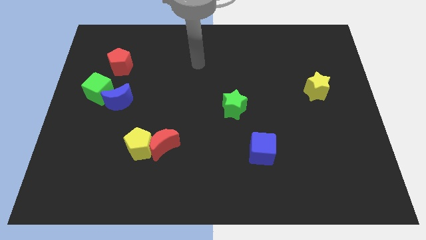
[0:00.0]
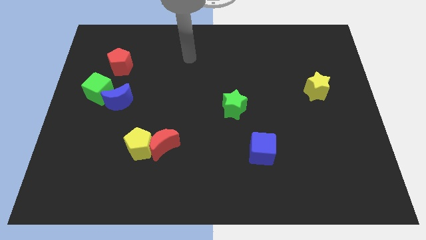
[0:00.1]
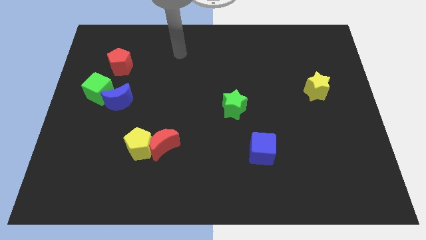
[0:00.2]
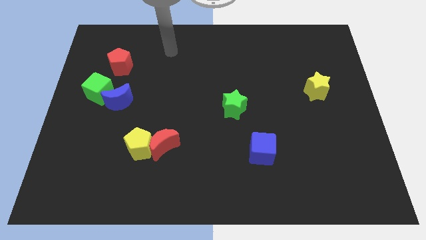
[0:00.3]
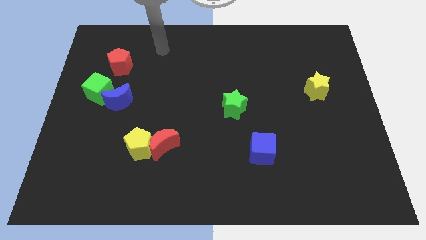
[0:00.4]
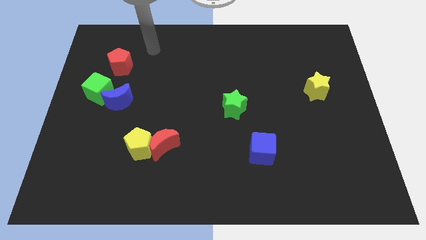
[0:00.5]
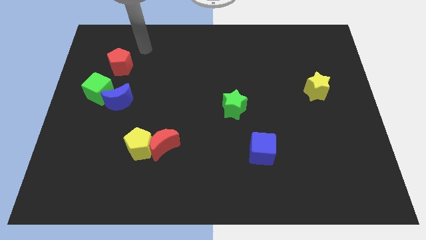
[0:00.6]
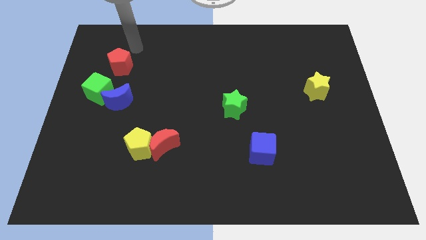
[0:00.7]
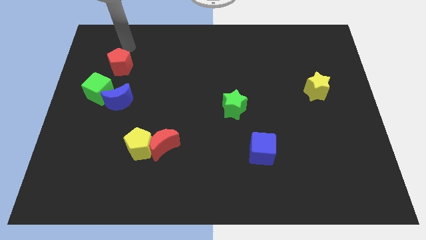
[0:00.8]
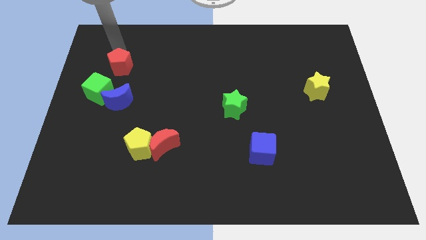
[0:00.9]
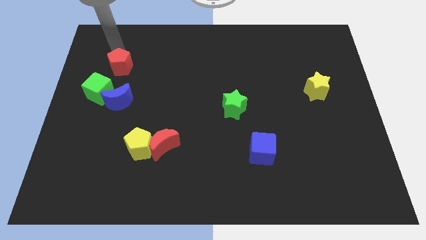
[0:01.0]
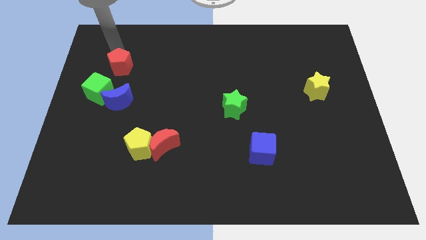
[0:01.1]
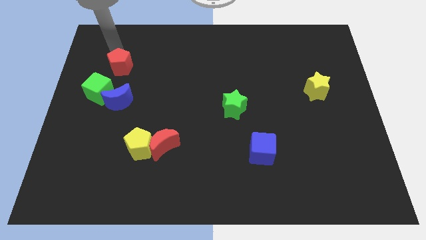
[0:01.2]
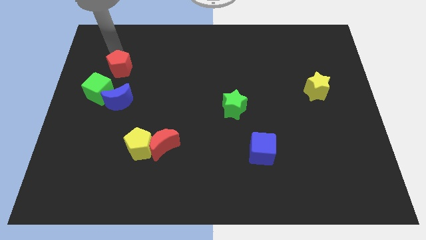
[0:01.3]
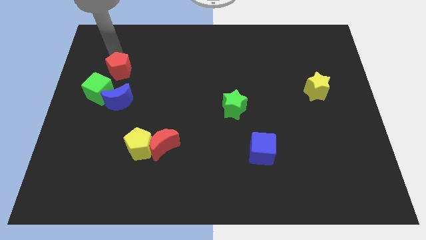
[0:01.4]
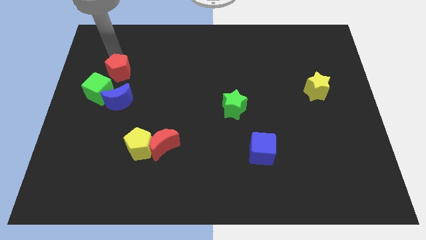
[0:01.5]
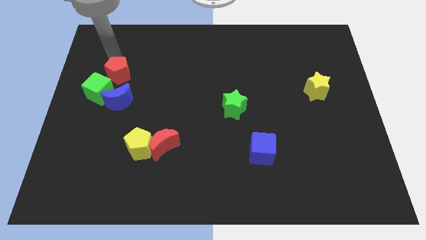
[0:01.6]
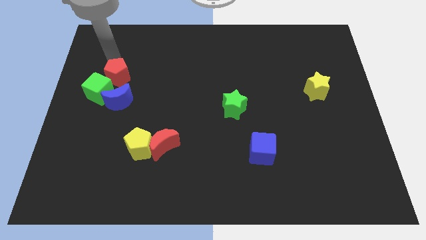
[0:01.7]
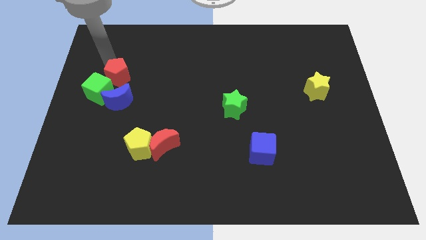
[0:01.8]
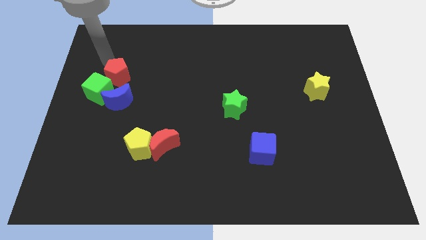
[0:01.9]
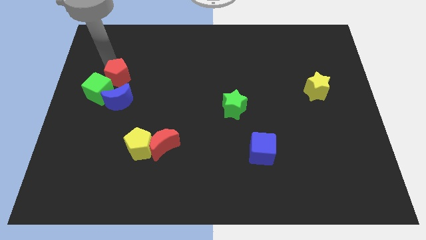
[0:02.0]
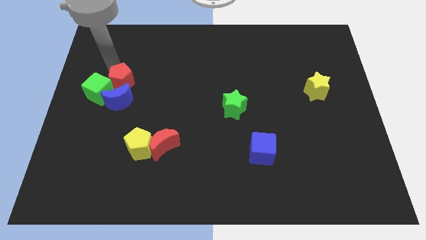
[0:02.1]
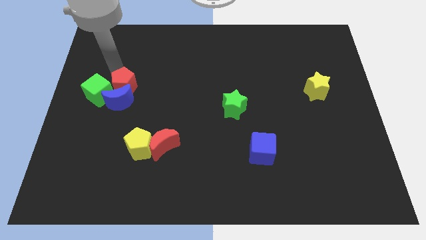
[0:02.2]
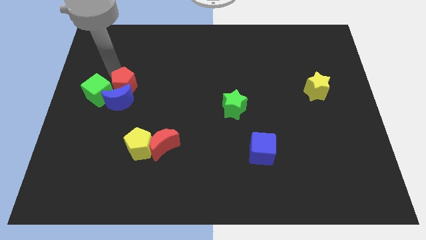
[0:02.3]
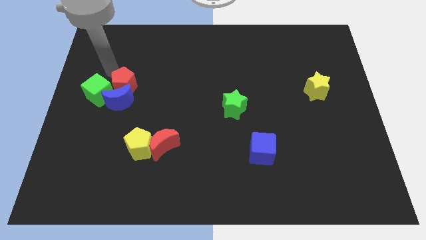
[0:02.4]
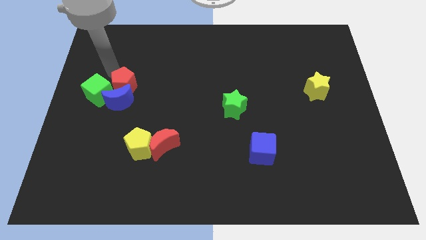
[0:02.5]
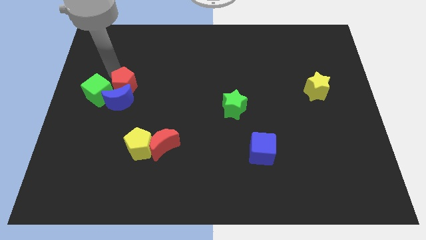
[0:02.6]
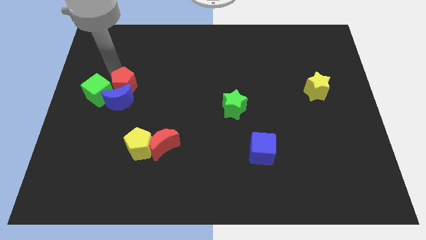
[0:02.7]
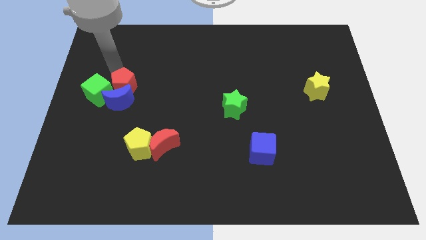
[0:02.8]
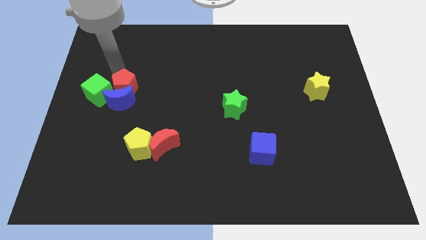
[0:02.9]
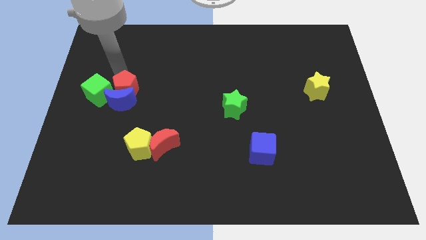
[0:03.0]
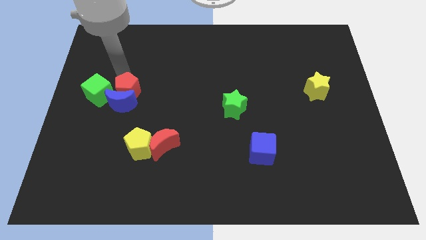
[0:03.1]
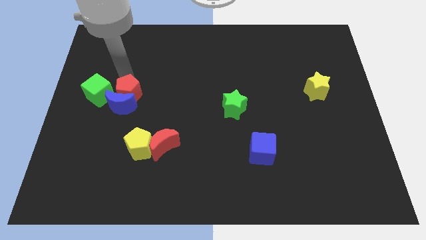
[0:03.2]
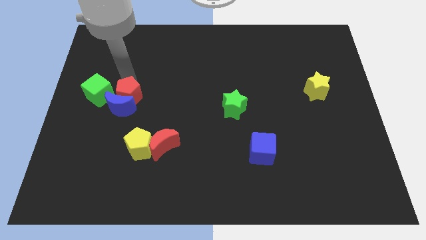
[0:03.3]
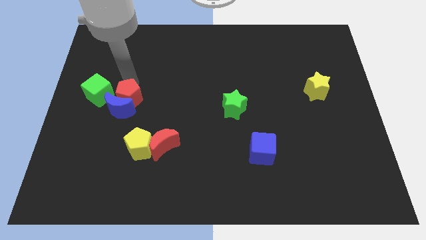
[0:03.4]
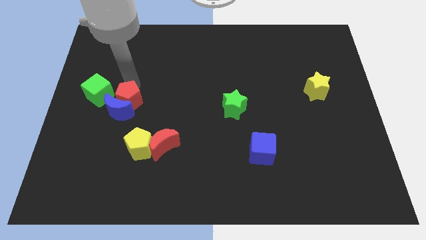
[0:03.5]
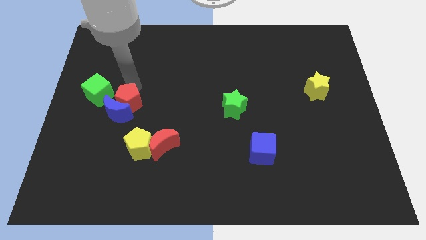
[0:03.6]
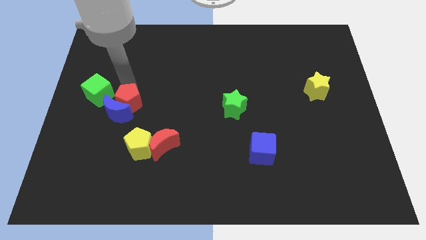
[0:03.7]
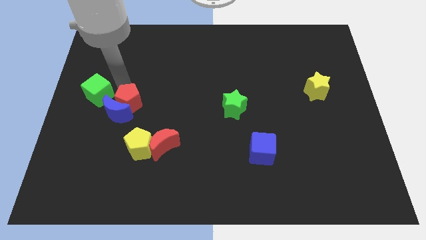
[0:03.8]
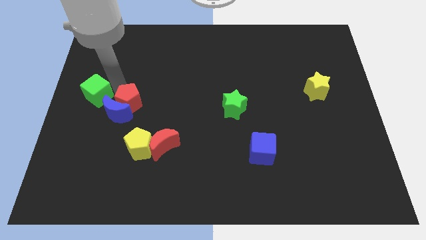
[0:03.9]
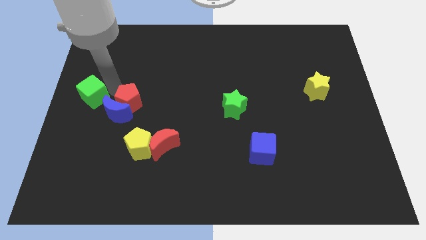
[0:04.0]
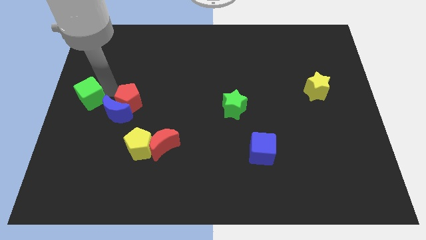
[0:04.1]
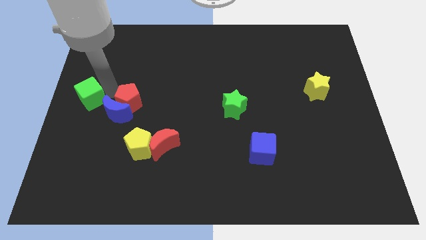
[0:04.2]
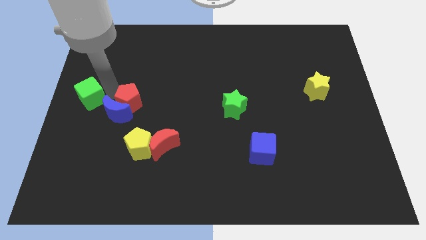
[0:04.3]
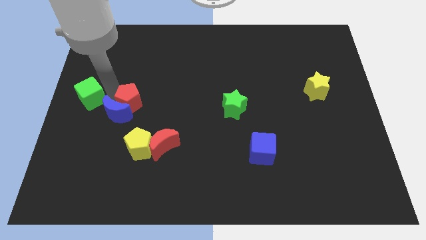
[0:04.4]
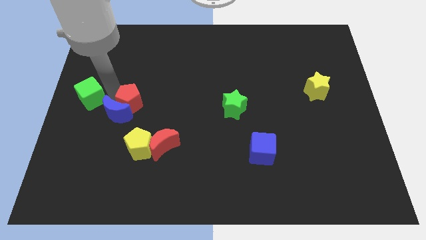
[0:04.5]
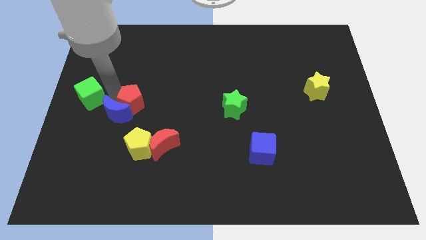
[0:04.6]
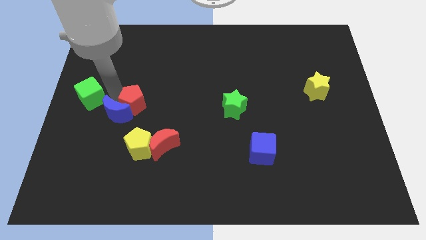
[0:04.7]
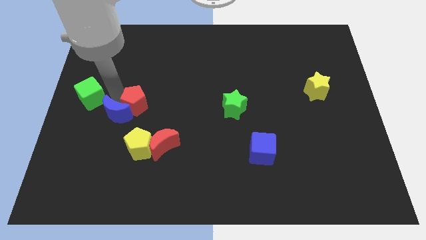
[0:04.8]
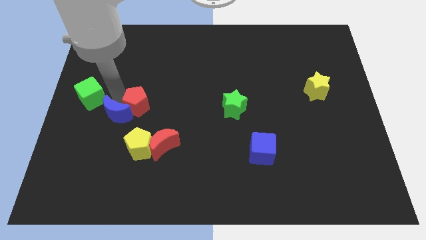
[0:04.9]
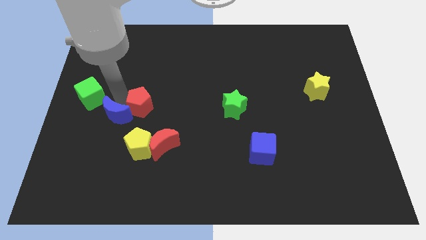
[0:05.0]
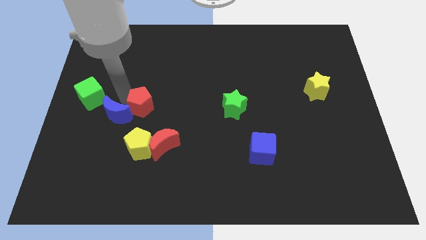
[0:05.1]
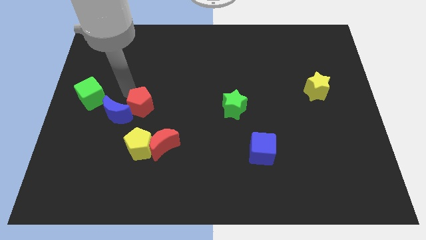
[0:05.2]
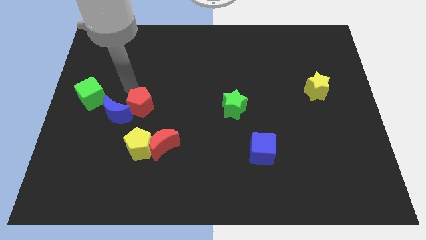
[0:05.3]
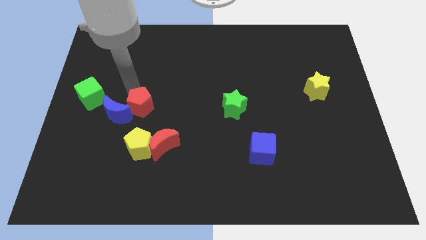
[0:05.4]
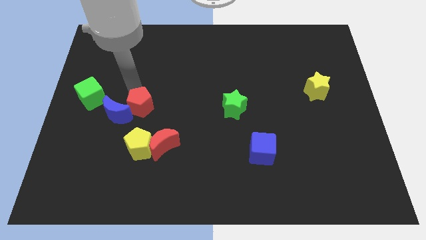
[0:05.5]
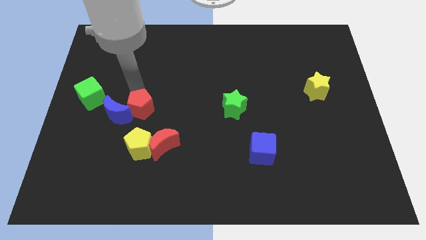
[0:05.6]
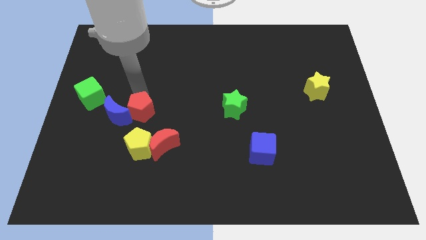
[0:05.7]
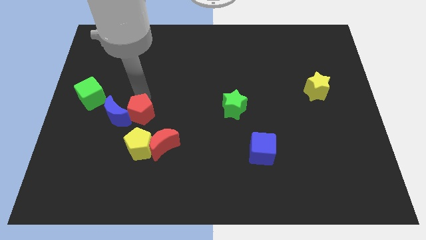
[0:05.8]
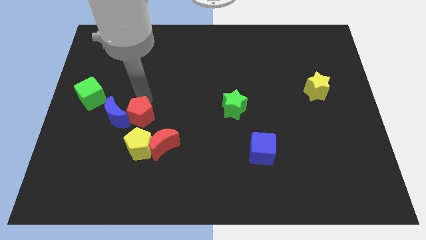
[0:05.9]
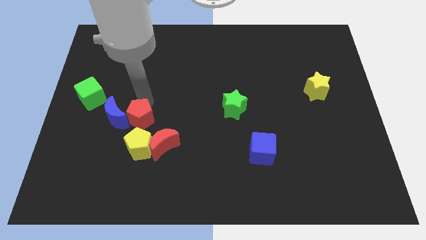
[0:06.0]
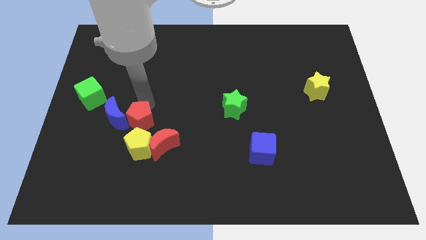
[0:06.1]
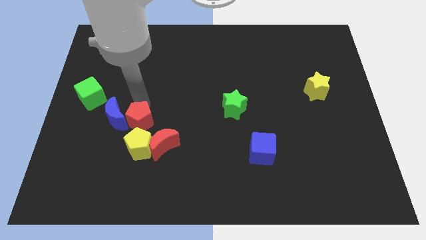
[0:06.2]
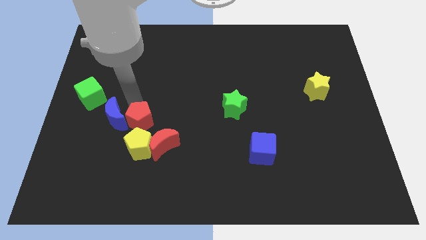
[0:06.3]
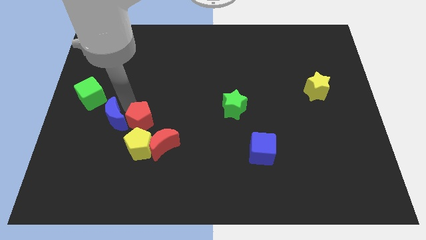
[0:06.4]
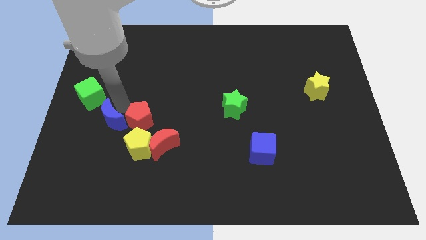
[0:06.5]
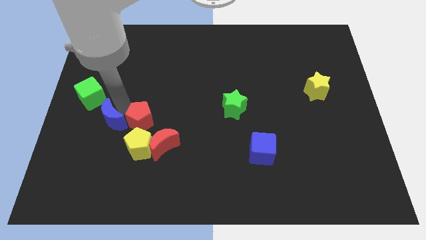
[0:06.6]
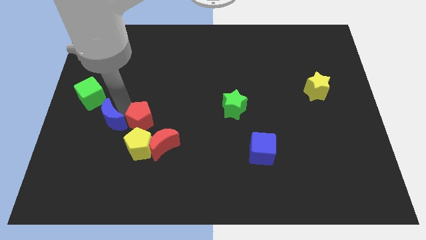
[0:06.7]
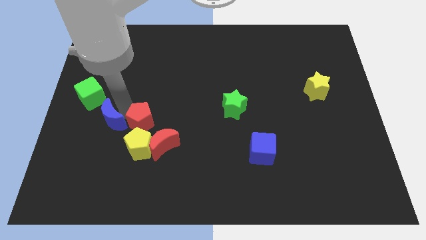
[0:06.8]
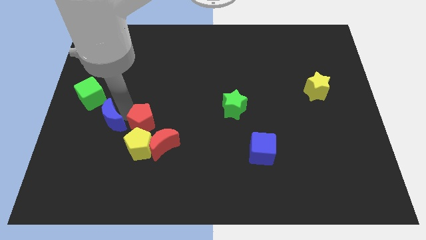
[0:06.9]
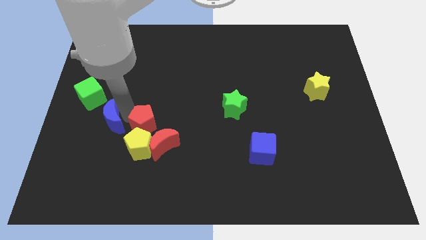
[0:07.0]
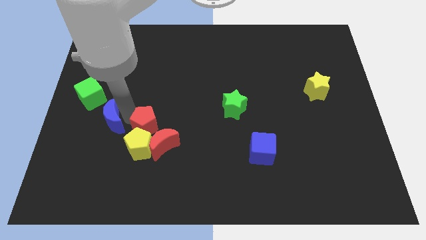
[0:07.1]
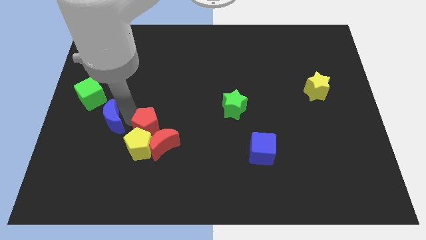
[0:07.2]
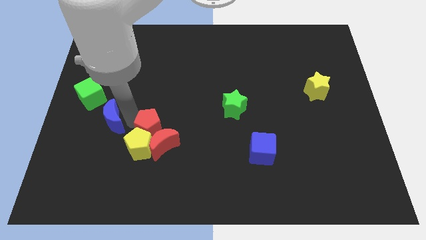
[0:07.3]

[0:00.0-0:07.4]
push the red pentagon next to the red moon
